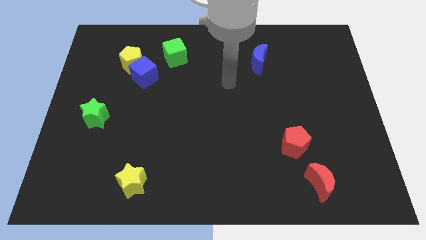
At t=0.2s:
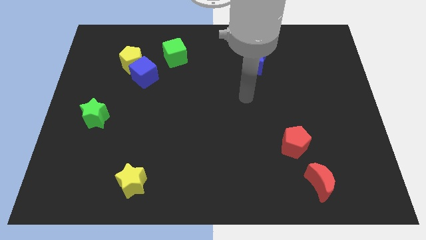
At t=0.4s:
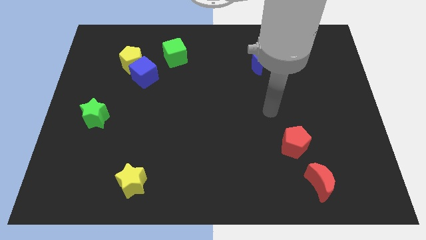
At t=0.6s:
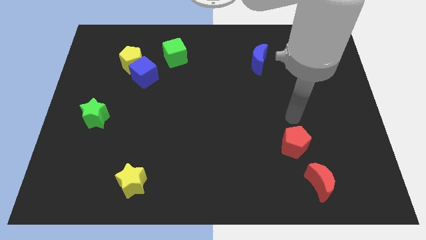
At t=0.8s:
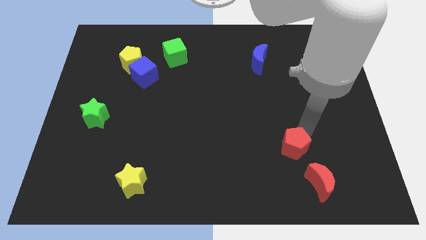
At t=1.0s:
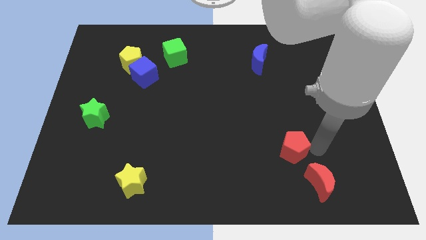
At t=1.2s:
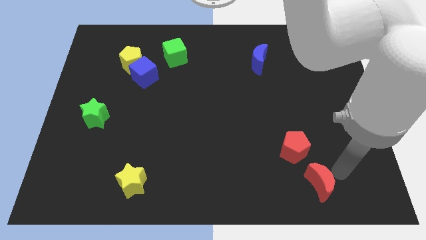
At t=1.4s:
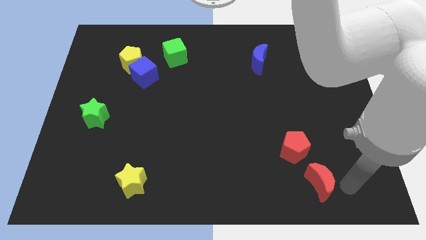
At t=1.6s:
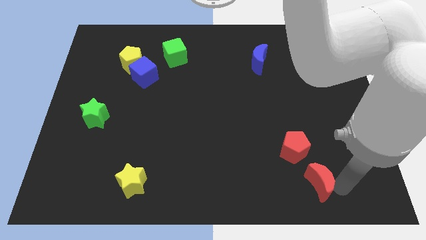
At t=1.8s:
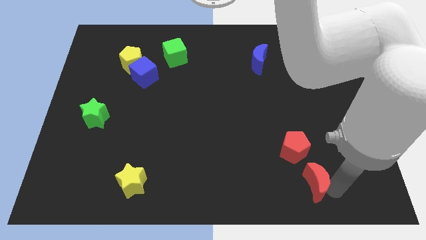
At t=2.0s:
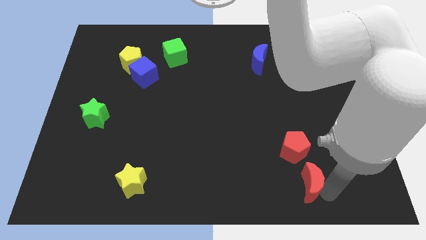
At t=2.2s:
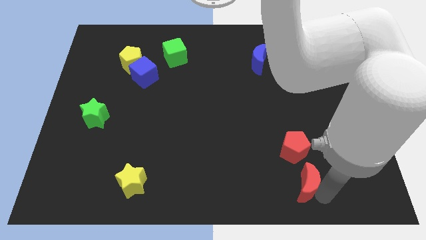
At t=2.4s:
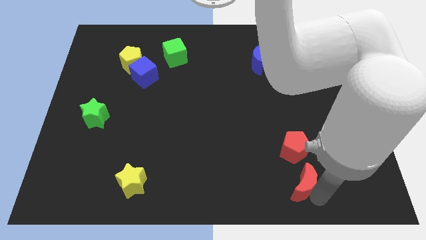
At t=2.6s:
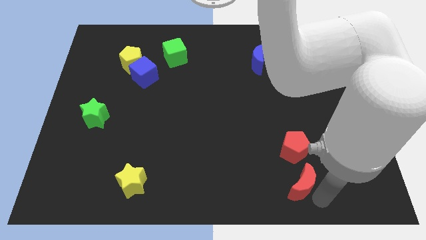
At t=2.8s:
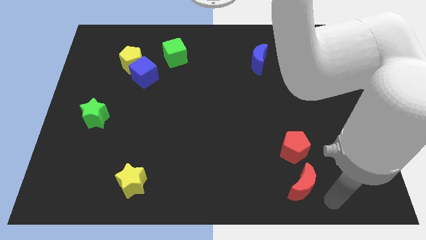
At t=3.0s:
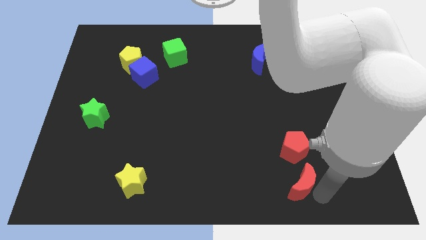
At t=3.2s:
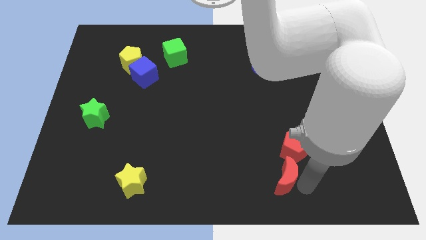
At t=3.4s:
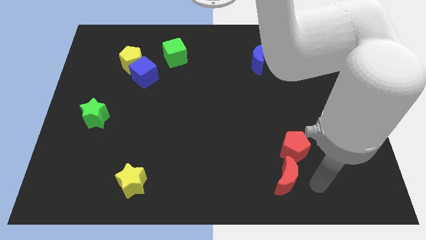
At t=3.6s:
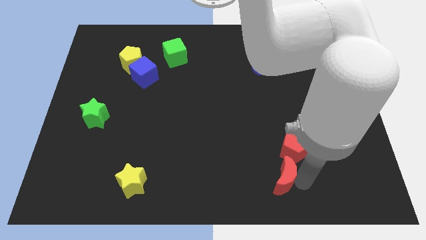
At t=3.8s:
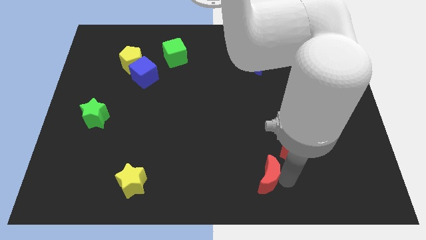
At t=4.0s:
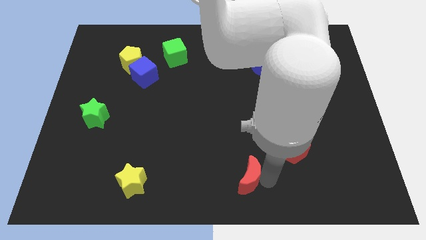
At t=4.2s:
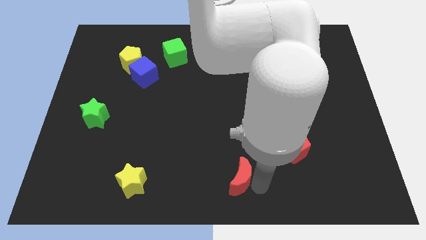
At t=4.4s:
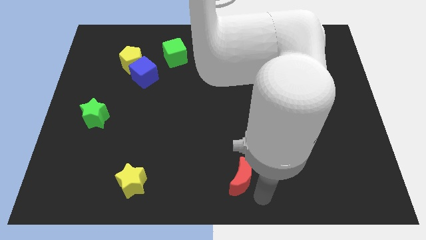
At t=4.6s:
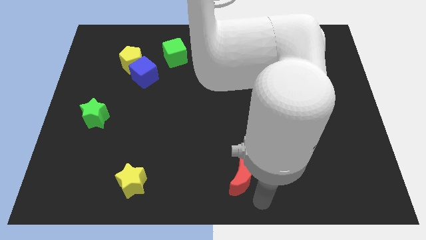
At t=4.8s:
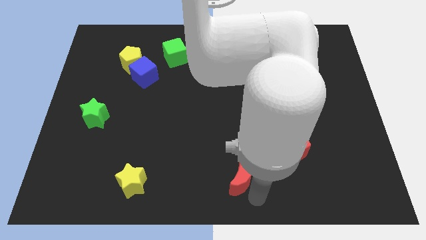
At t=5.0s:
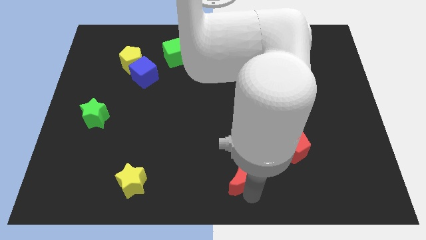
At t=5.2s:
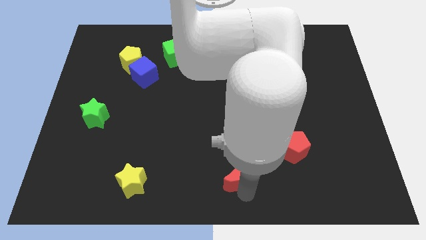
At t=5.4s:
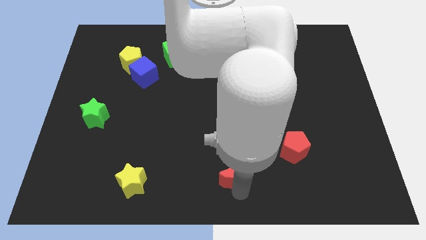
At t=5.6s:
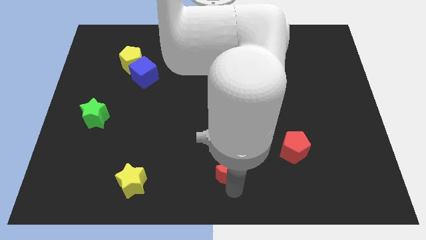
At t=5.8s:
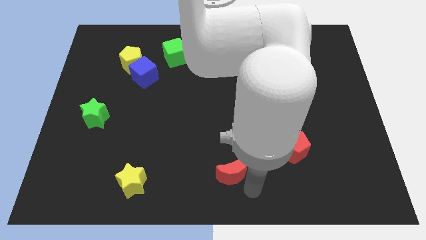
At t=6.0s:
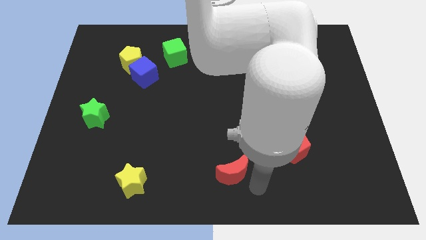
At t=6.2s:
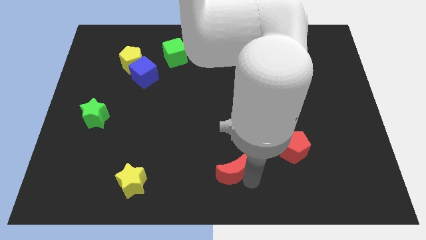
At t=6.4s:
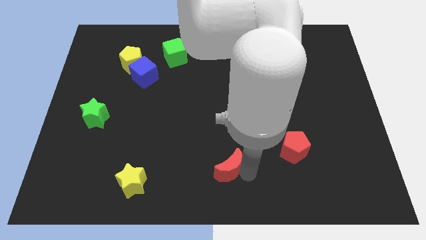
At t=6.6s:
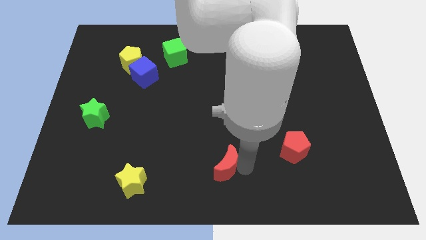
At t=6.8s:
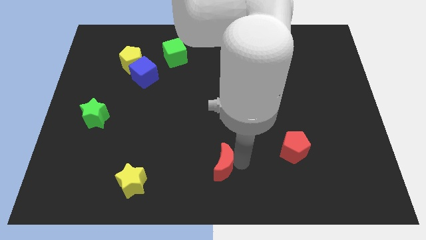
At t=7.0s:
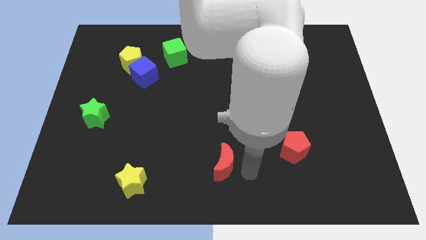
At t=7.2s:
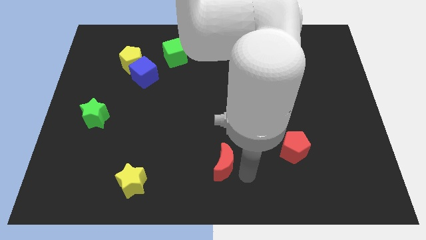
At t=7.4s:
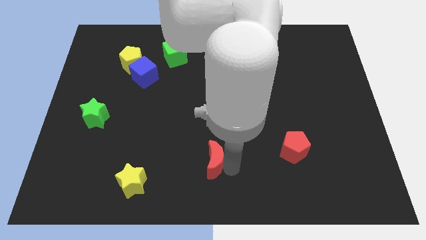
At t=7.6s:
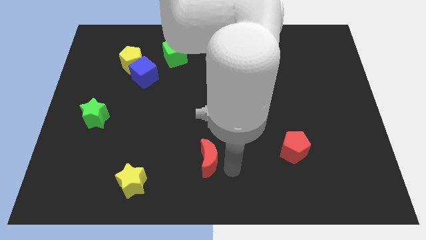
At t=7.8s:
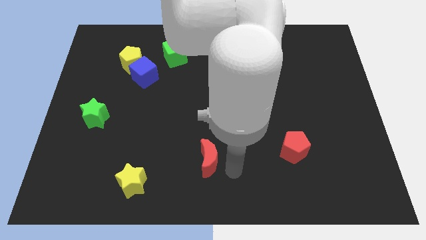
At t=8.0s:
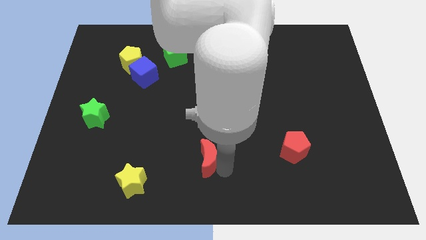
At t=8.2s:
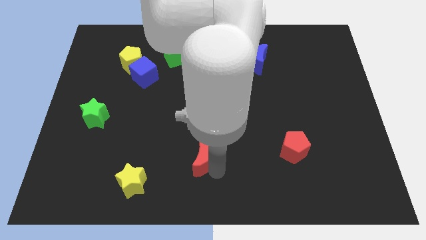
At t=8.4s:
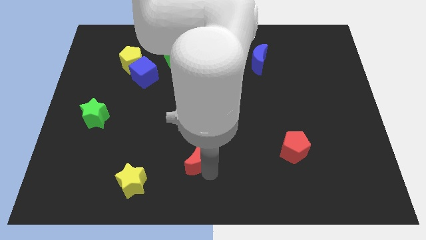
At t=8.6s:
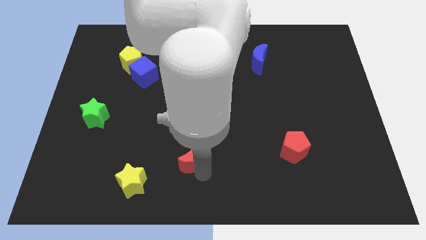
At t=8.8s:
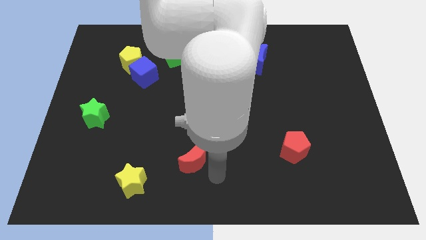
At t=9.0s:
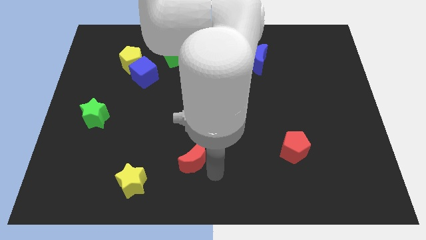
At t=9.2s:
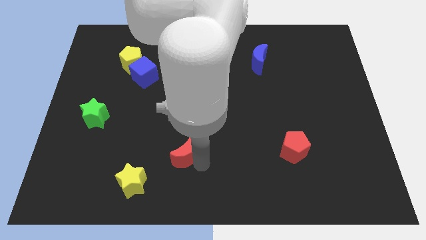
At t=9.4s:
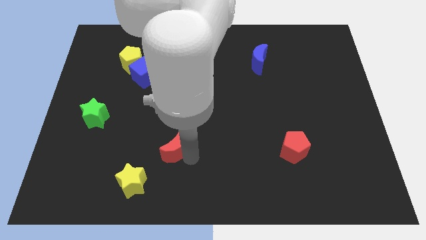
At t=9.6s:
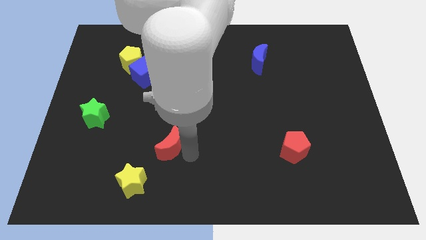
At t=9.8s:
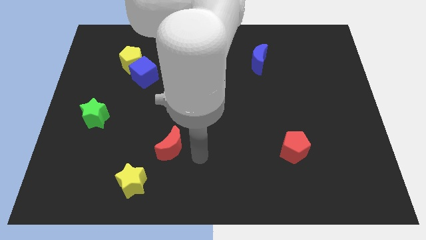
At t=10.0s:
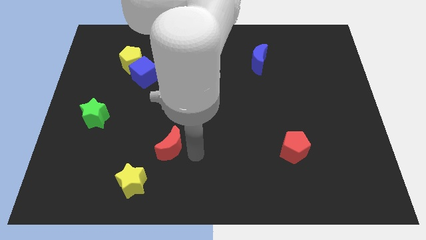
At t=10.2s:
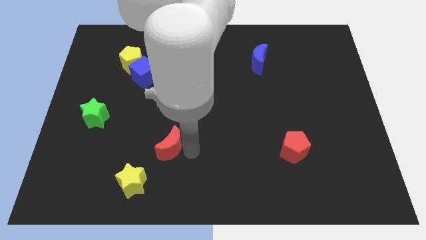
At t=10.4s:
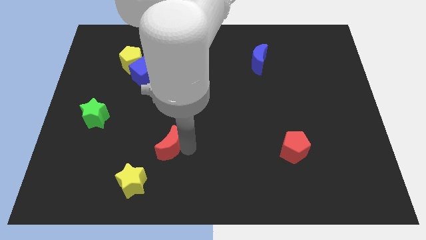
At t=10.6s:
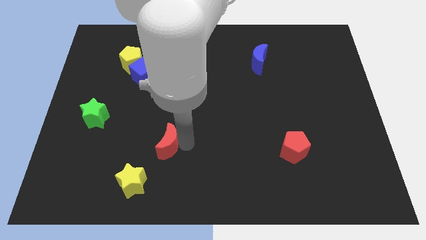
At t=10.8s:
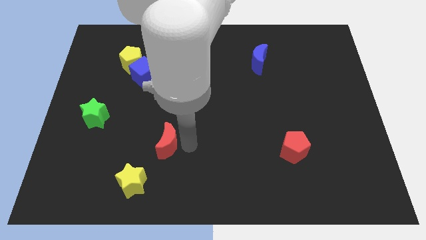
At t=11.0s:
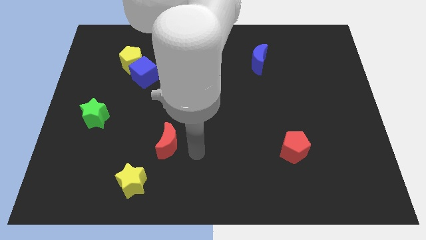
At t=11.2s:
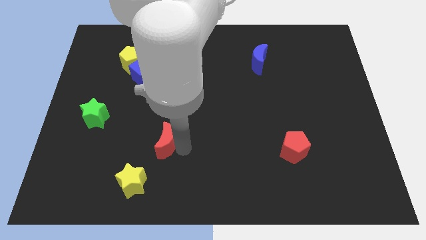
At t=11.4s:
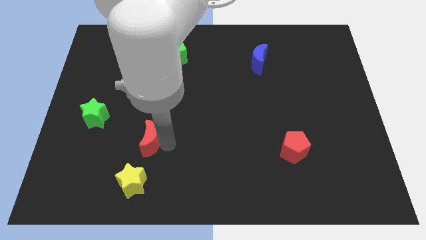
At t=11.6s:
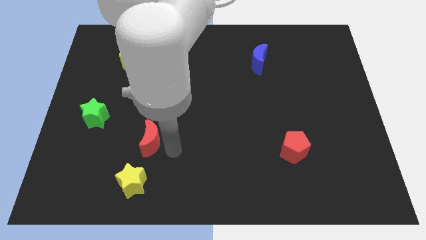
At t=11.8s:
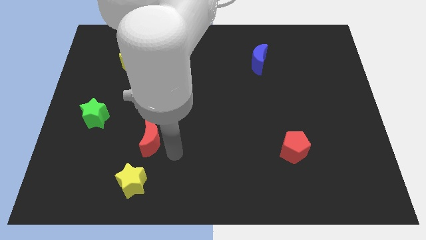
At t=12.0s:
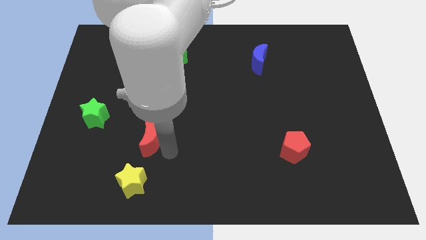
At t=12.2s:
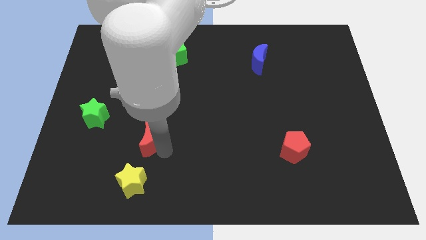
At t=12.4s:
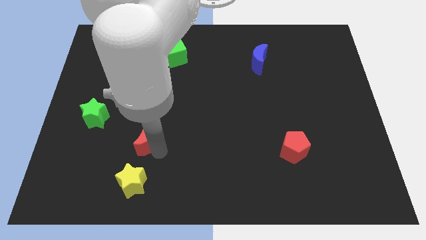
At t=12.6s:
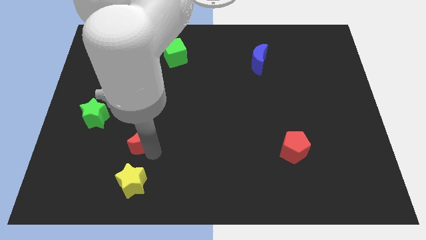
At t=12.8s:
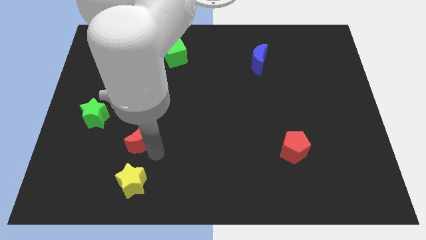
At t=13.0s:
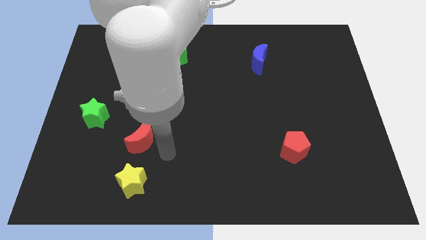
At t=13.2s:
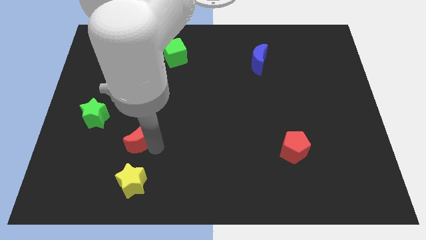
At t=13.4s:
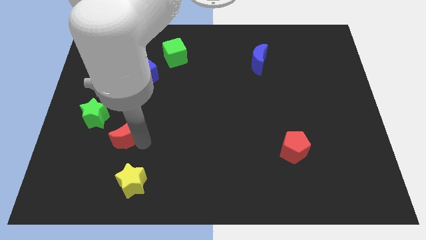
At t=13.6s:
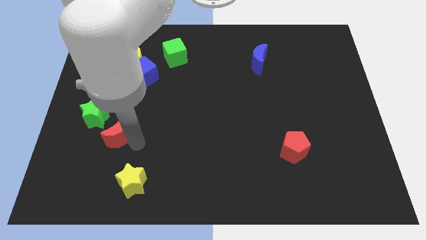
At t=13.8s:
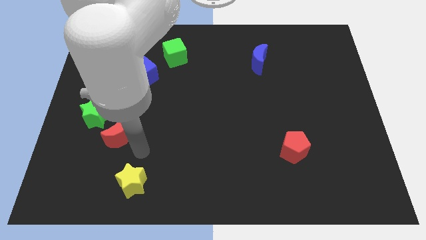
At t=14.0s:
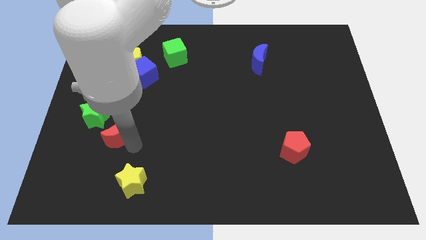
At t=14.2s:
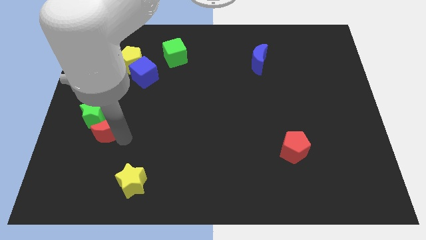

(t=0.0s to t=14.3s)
put the red moon towards the green star

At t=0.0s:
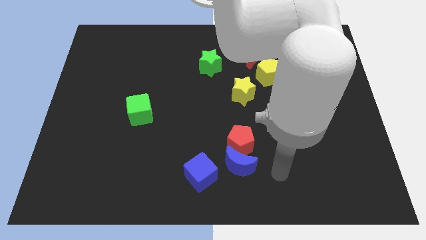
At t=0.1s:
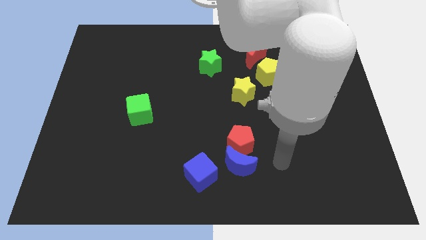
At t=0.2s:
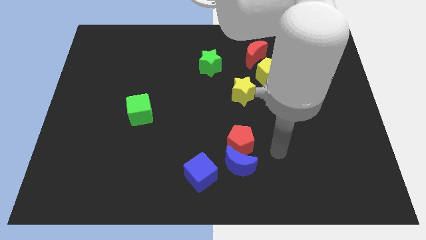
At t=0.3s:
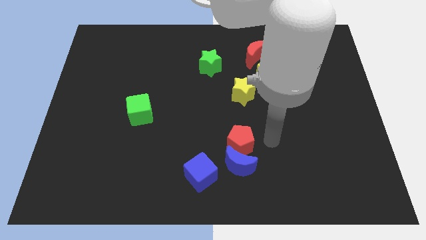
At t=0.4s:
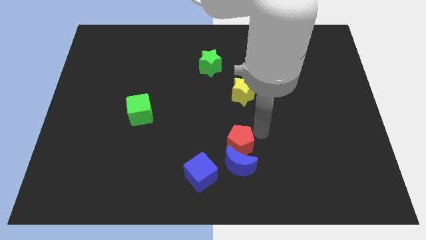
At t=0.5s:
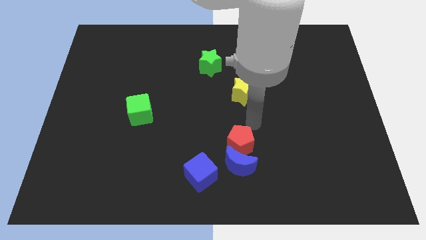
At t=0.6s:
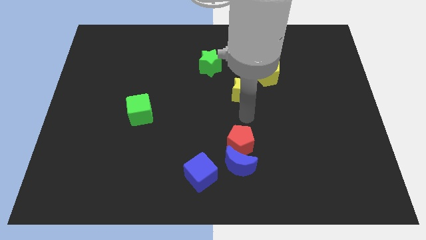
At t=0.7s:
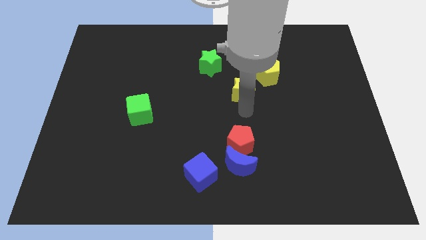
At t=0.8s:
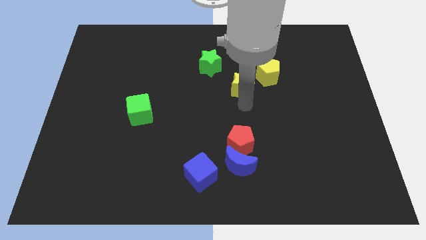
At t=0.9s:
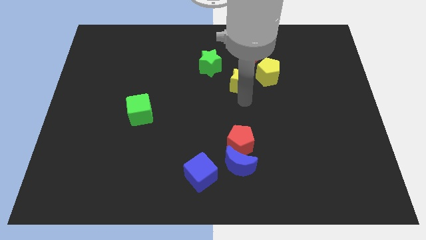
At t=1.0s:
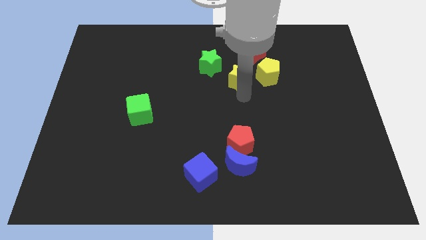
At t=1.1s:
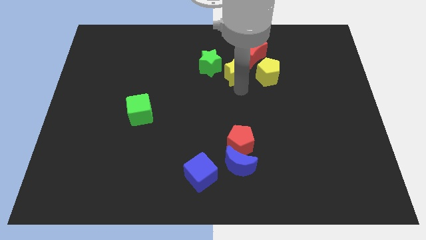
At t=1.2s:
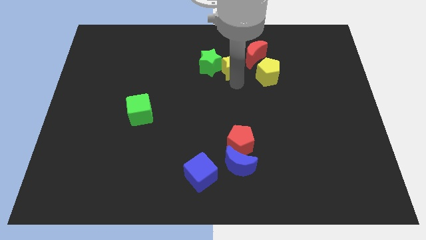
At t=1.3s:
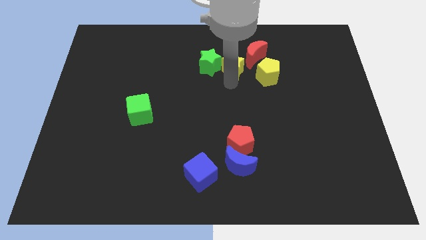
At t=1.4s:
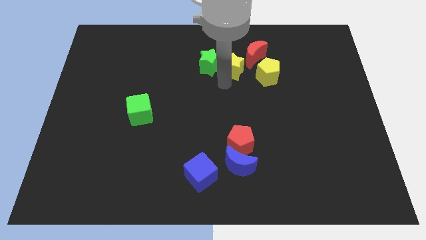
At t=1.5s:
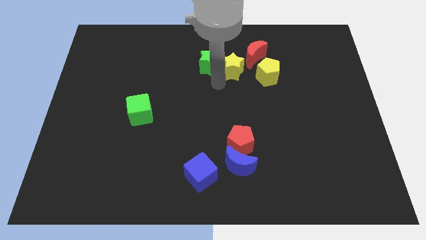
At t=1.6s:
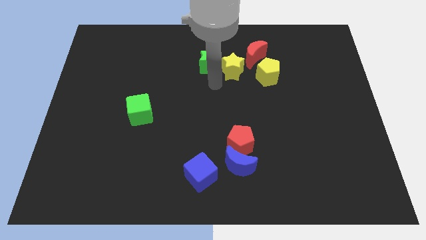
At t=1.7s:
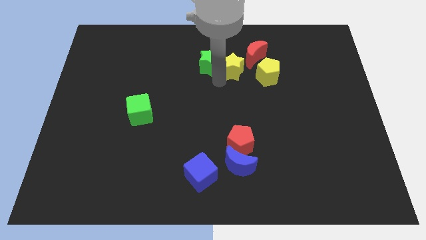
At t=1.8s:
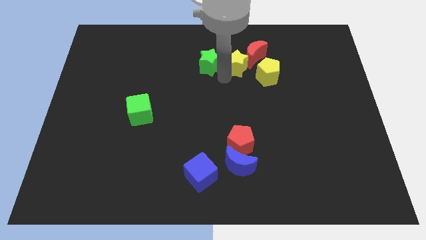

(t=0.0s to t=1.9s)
push the yellow star next to the red moon
